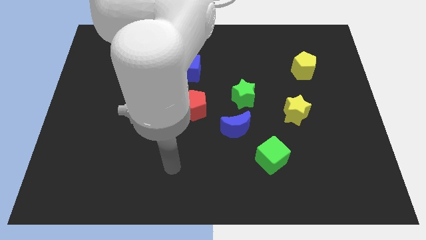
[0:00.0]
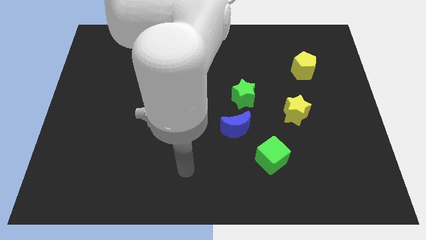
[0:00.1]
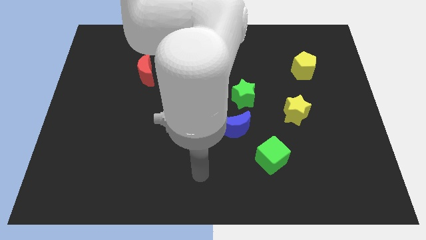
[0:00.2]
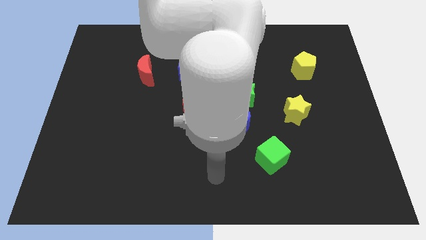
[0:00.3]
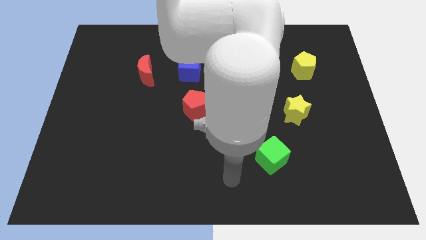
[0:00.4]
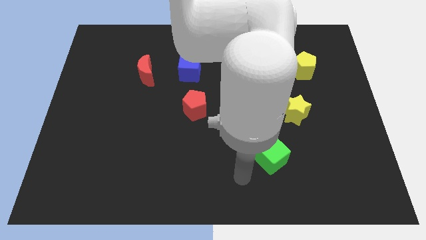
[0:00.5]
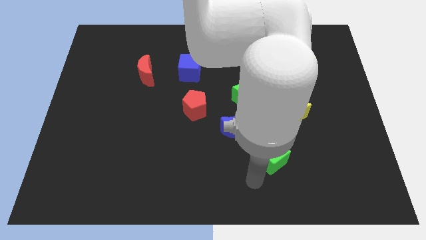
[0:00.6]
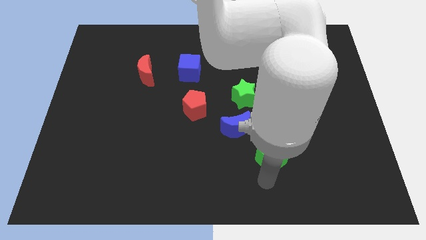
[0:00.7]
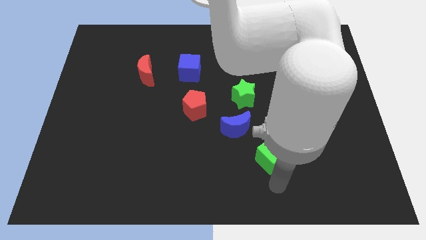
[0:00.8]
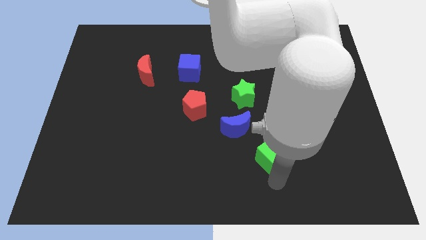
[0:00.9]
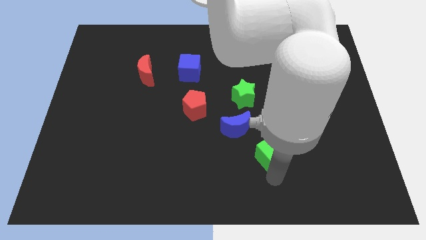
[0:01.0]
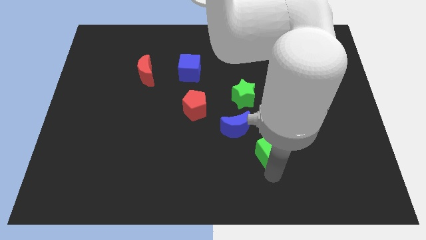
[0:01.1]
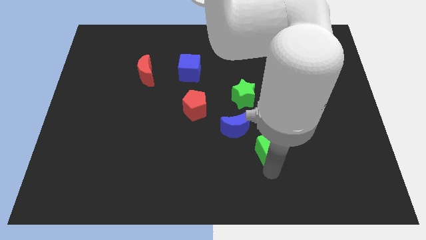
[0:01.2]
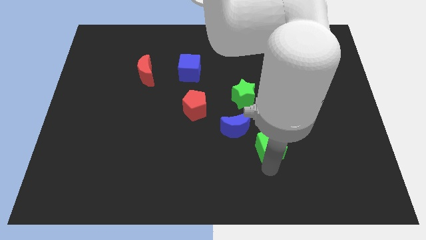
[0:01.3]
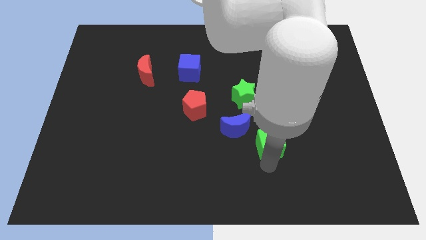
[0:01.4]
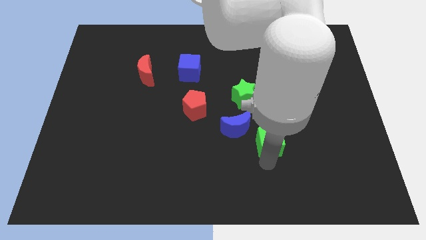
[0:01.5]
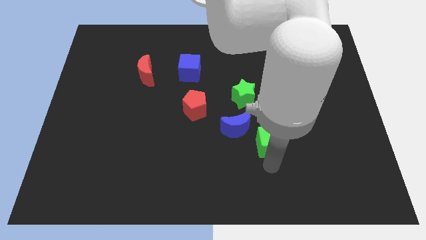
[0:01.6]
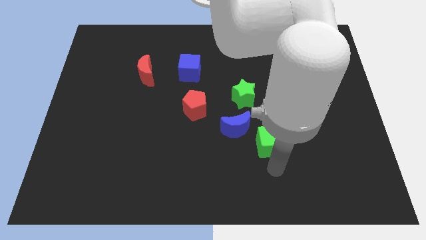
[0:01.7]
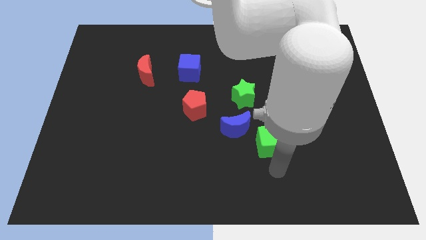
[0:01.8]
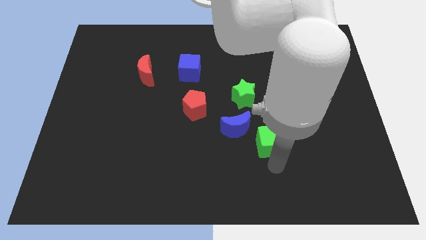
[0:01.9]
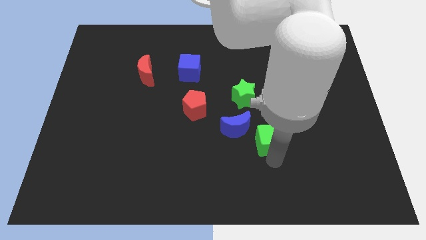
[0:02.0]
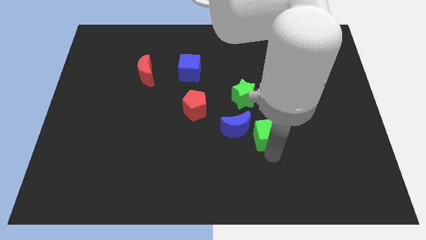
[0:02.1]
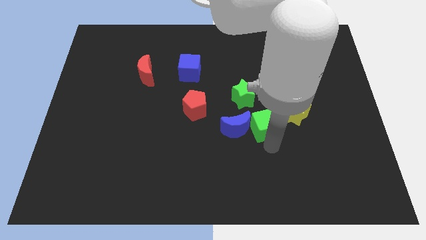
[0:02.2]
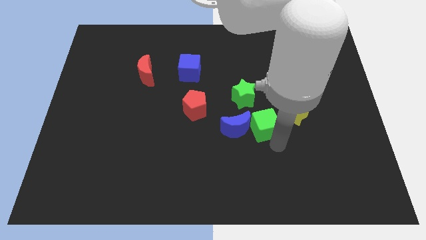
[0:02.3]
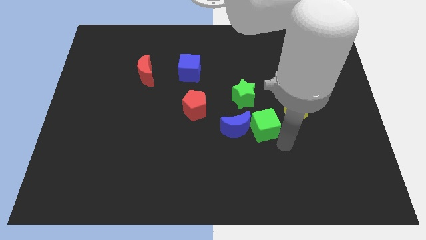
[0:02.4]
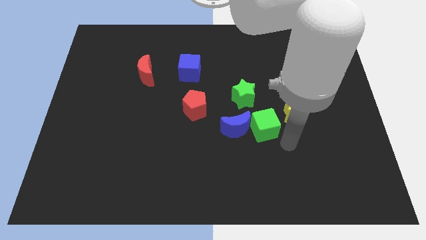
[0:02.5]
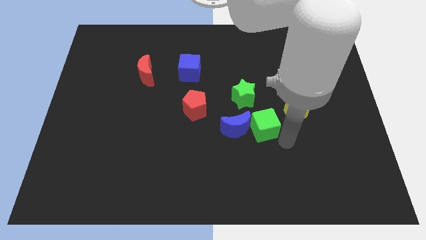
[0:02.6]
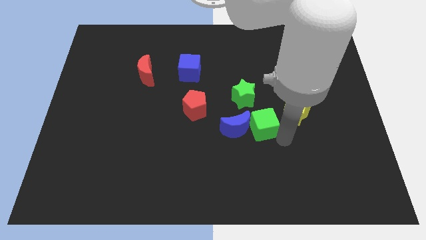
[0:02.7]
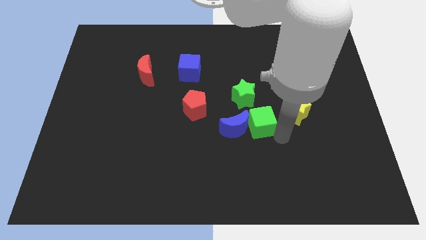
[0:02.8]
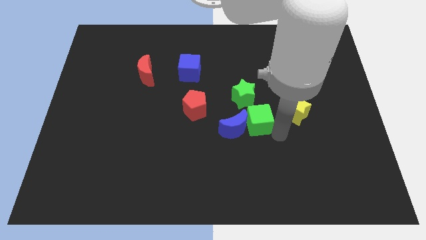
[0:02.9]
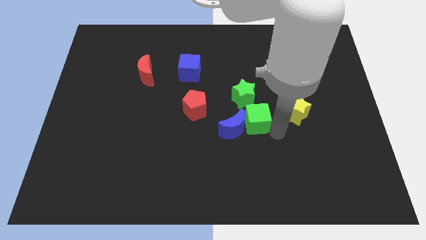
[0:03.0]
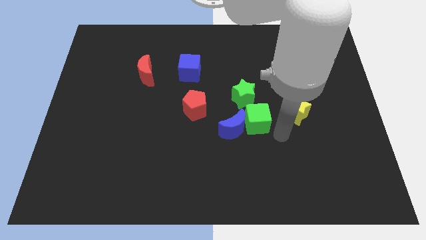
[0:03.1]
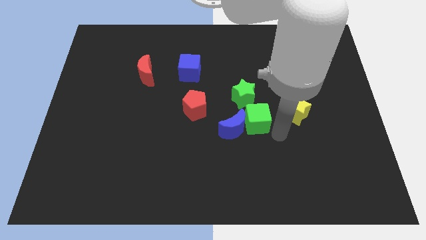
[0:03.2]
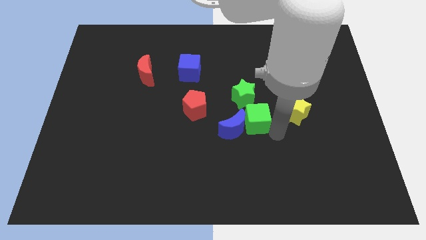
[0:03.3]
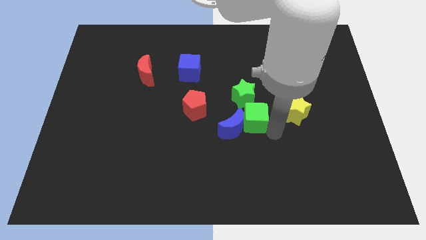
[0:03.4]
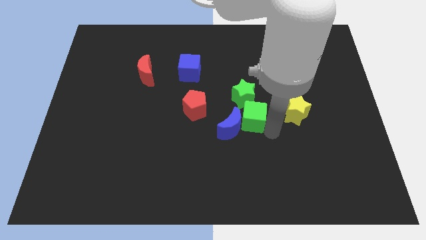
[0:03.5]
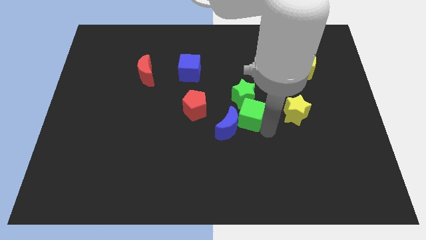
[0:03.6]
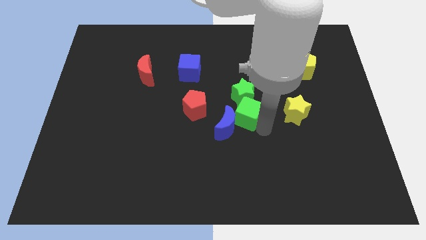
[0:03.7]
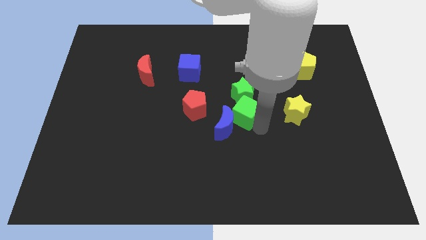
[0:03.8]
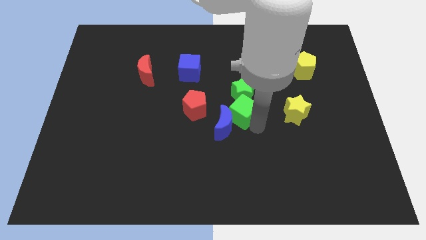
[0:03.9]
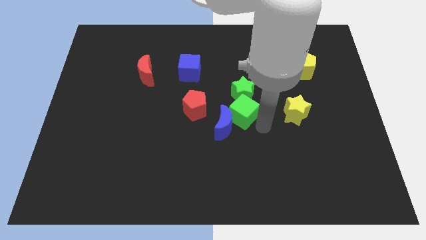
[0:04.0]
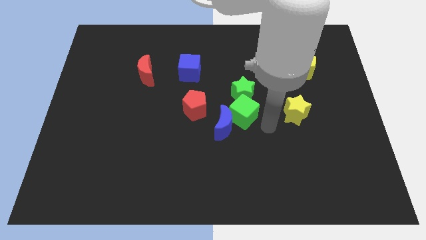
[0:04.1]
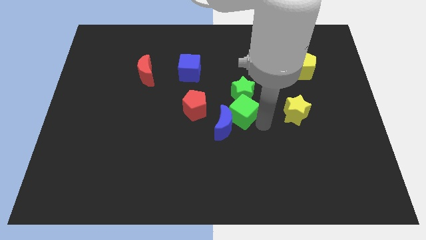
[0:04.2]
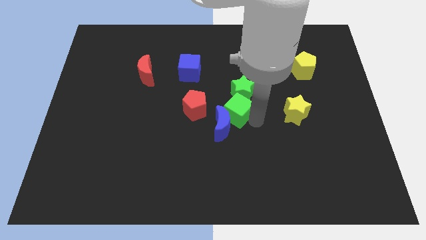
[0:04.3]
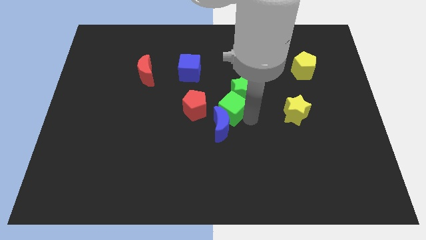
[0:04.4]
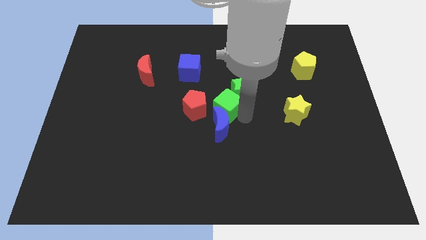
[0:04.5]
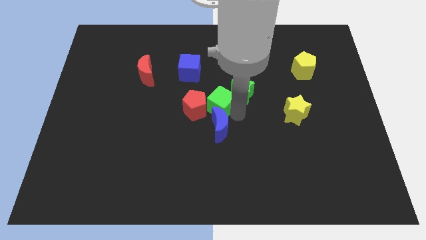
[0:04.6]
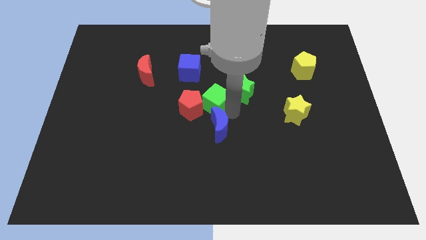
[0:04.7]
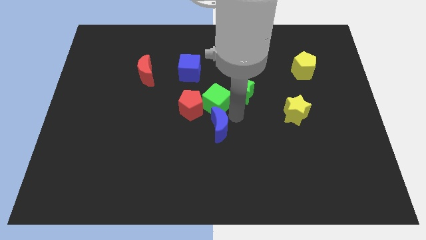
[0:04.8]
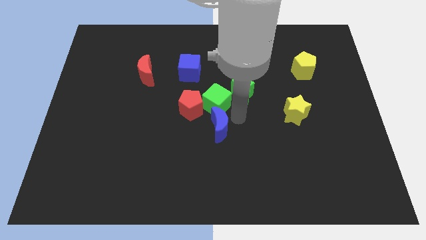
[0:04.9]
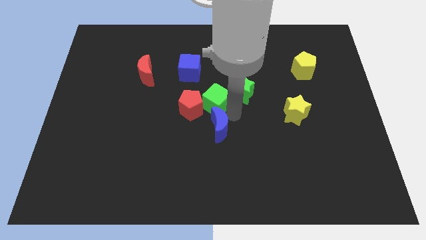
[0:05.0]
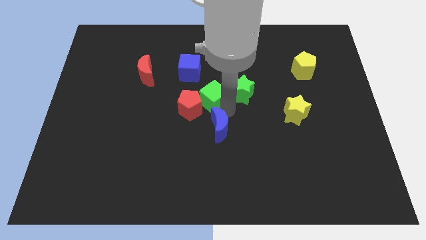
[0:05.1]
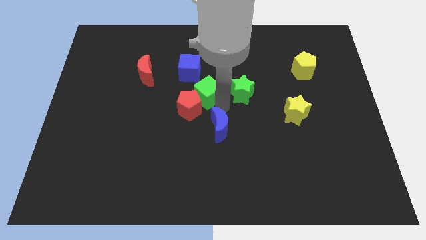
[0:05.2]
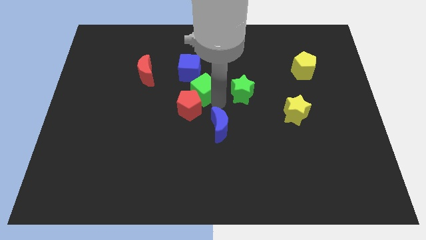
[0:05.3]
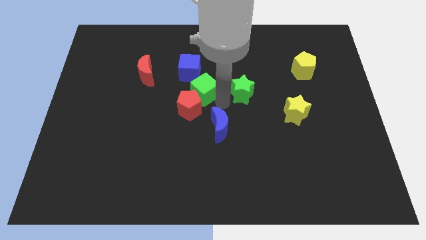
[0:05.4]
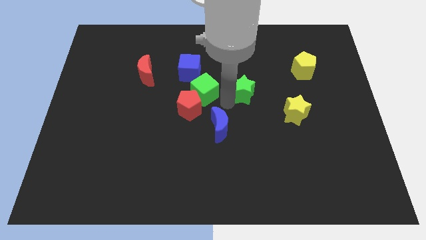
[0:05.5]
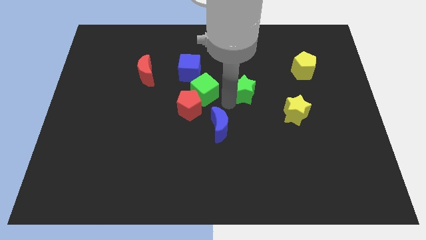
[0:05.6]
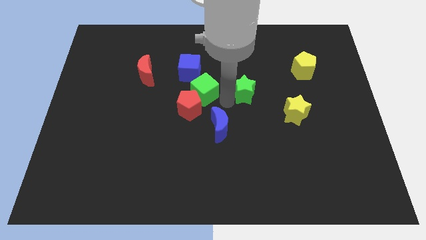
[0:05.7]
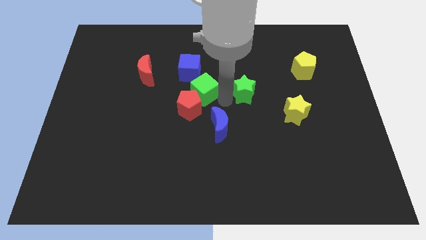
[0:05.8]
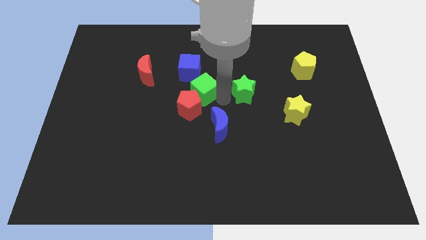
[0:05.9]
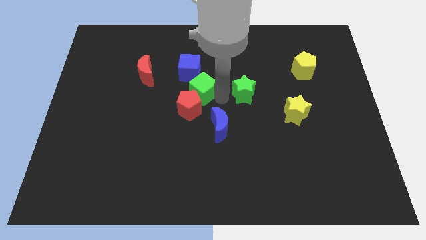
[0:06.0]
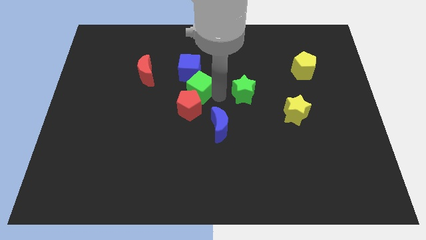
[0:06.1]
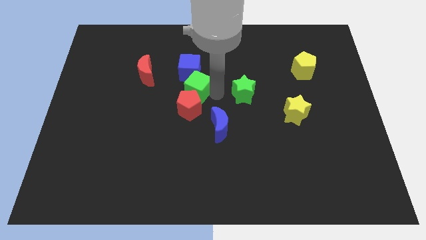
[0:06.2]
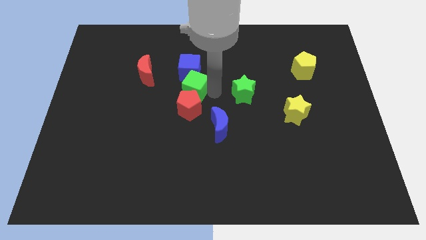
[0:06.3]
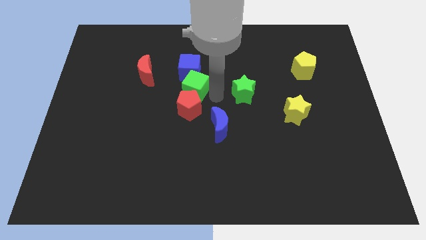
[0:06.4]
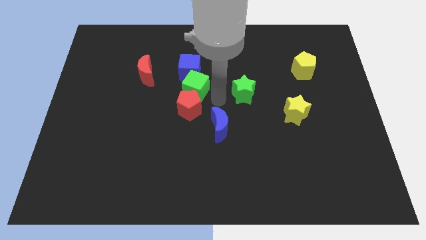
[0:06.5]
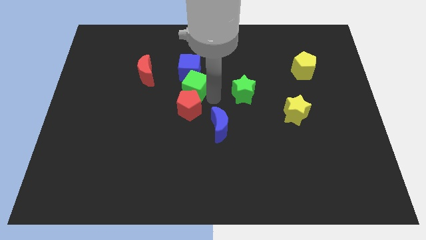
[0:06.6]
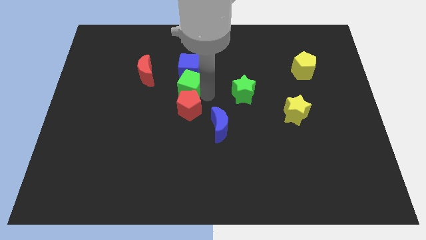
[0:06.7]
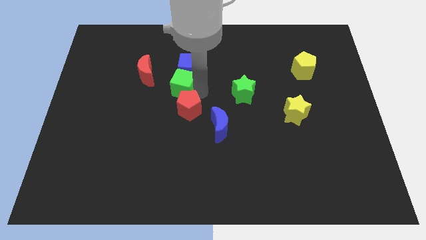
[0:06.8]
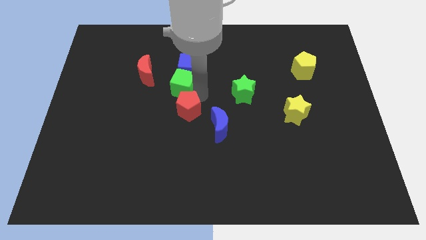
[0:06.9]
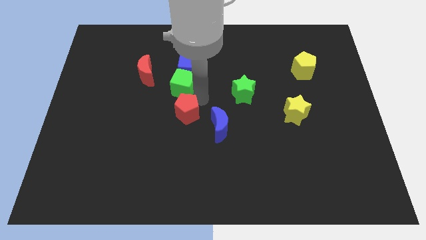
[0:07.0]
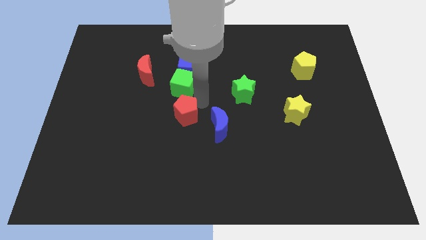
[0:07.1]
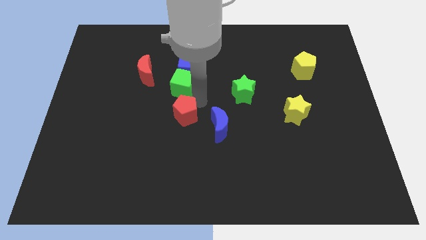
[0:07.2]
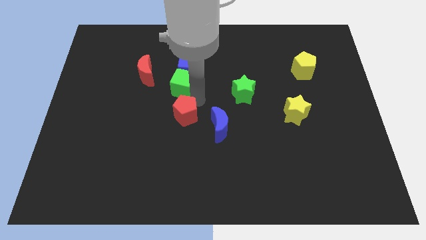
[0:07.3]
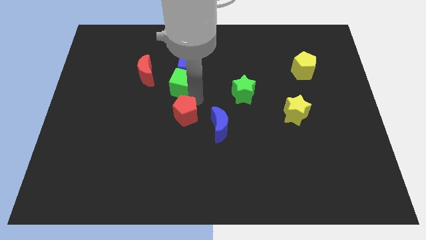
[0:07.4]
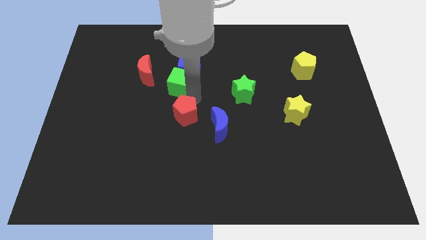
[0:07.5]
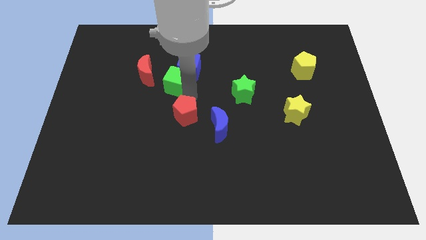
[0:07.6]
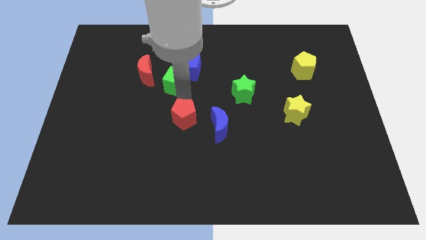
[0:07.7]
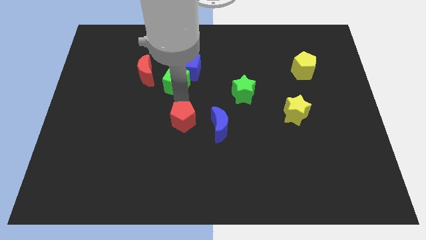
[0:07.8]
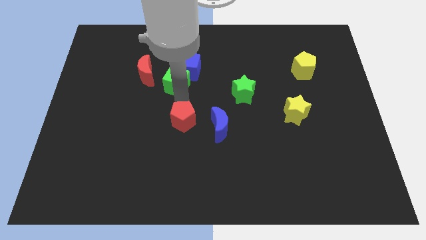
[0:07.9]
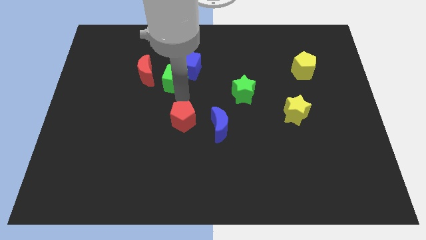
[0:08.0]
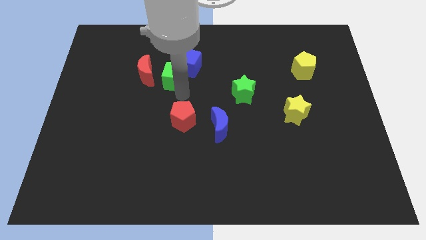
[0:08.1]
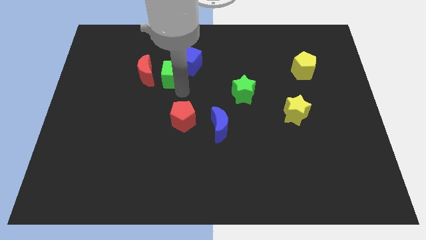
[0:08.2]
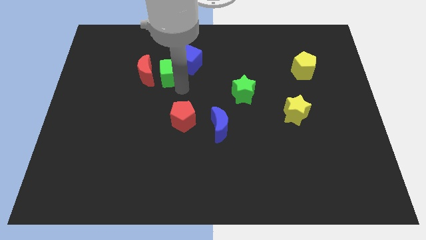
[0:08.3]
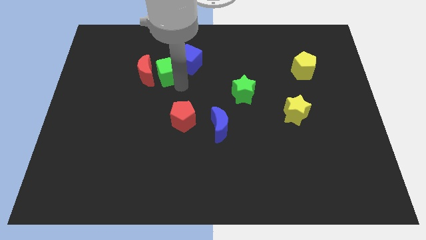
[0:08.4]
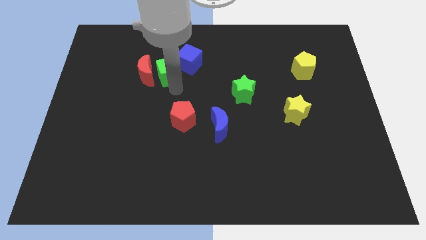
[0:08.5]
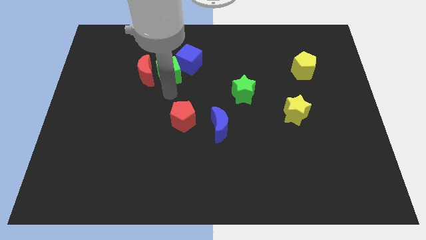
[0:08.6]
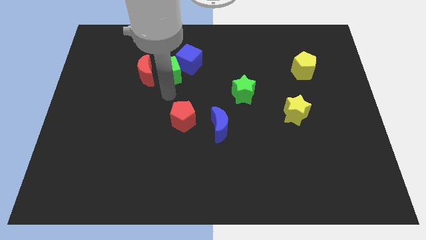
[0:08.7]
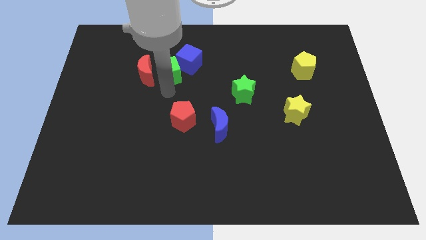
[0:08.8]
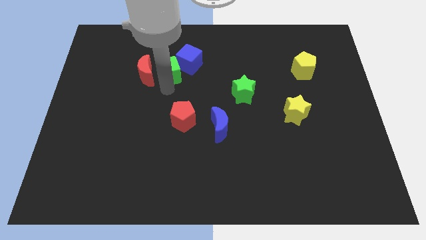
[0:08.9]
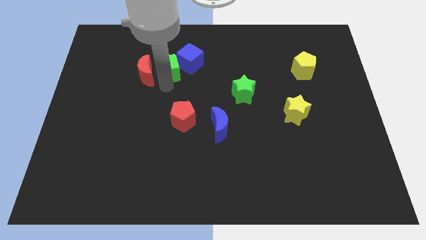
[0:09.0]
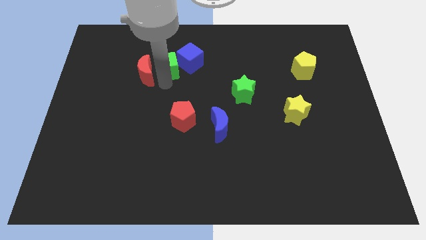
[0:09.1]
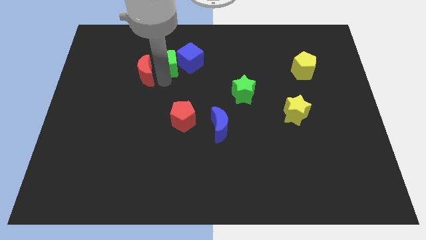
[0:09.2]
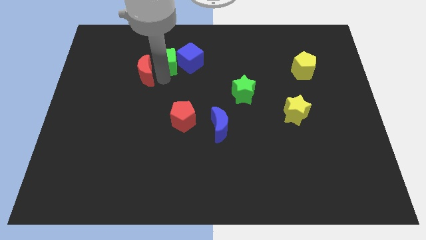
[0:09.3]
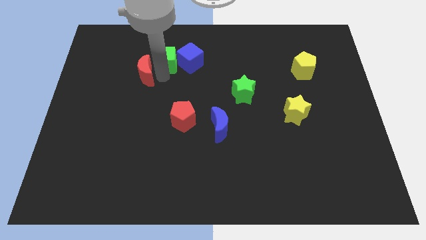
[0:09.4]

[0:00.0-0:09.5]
slide the green cube to the top left of the blue cube
